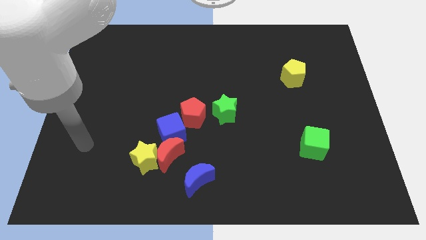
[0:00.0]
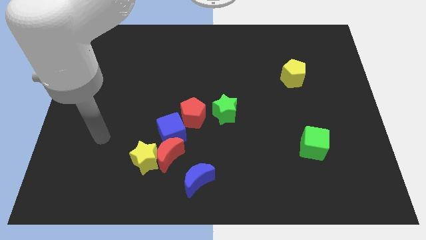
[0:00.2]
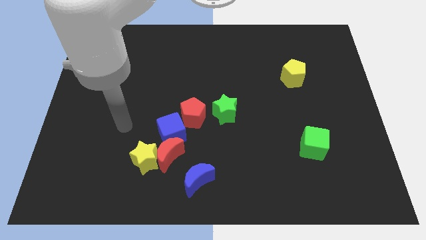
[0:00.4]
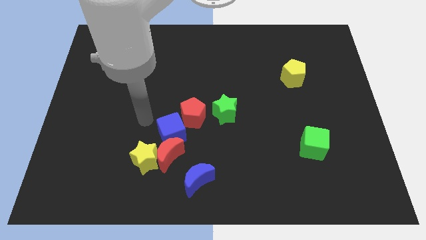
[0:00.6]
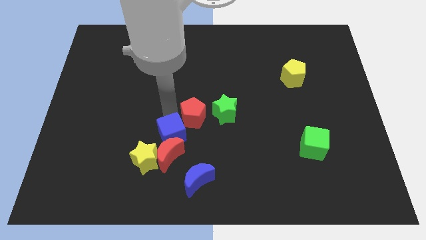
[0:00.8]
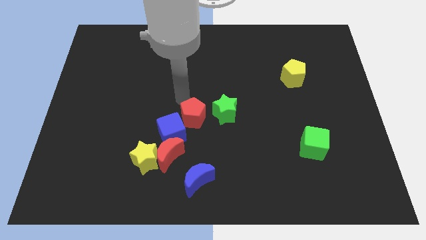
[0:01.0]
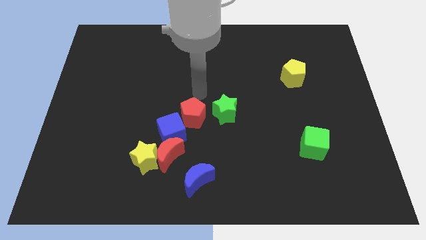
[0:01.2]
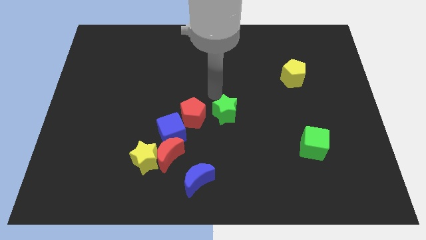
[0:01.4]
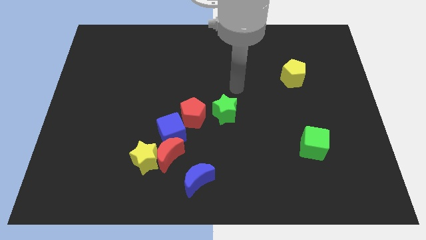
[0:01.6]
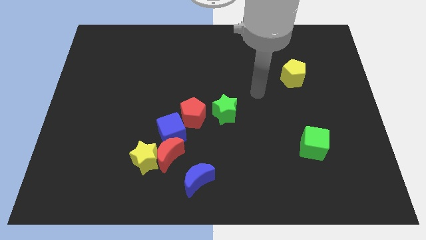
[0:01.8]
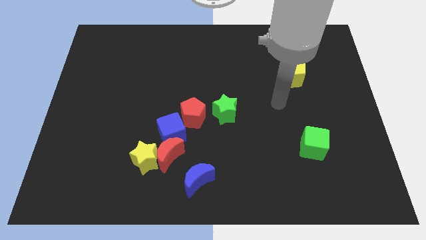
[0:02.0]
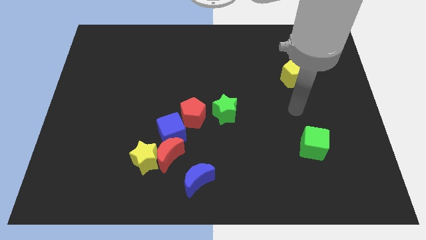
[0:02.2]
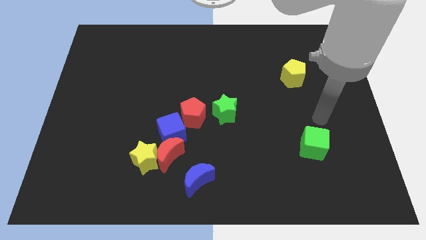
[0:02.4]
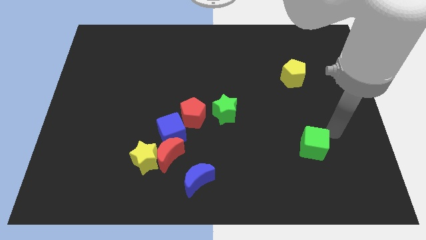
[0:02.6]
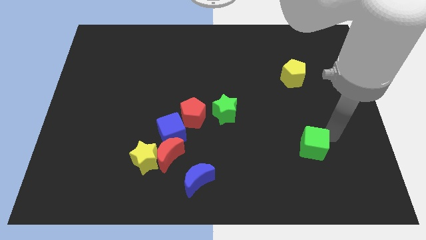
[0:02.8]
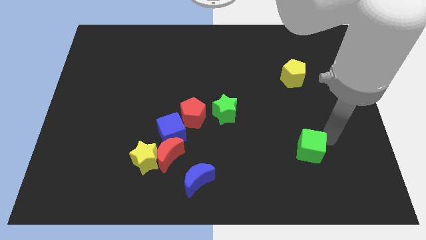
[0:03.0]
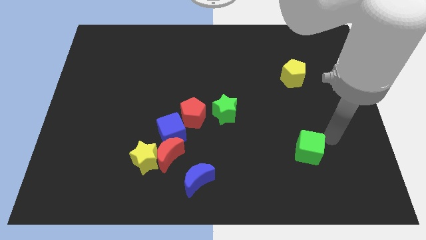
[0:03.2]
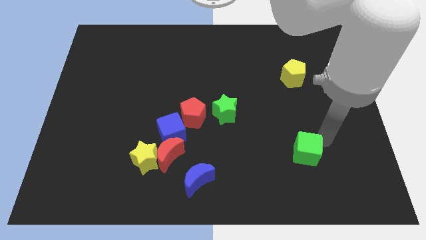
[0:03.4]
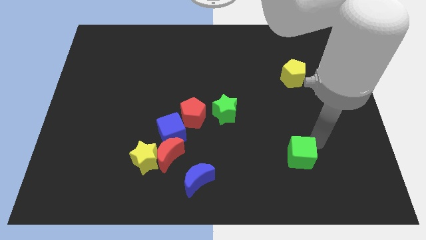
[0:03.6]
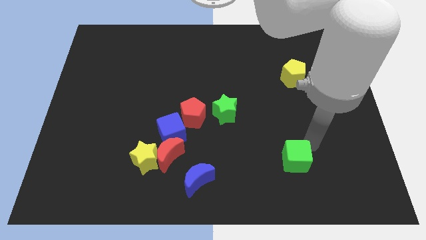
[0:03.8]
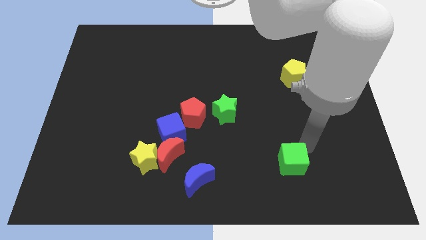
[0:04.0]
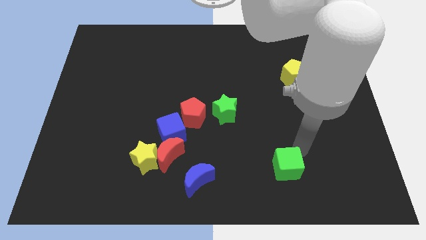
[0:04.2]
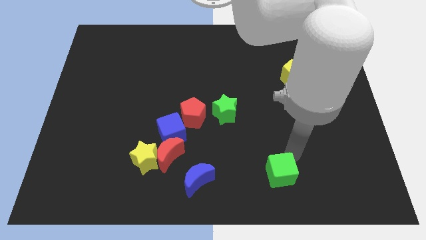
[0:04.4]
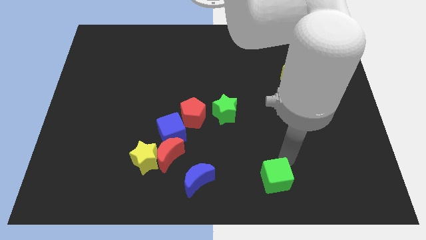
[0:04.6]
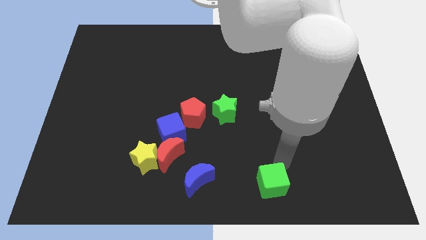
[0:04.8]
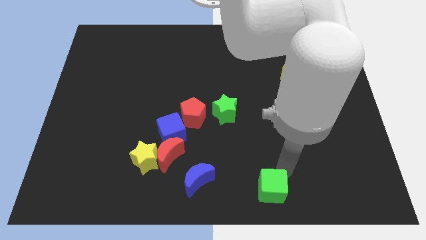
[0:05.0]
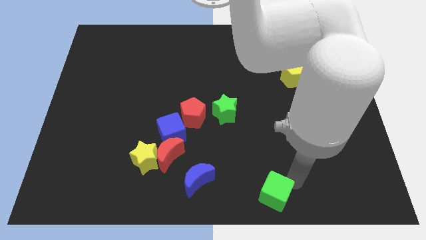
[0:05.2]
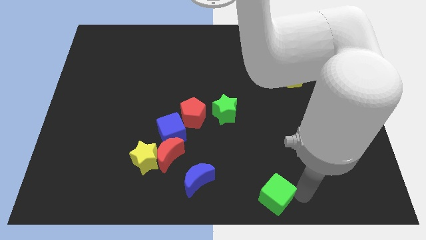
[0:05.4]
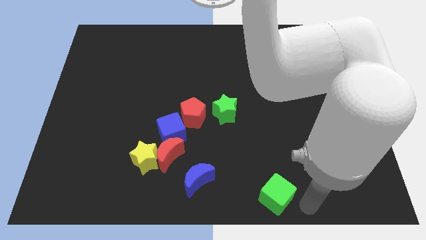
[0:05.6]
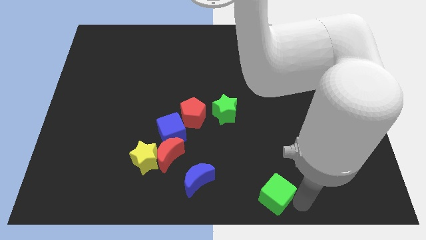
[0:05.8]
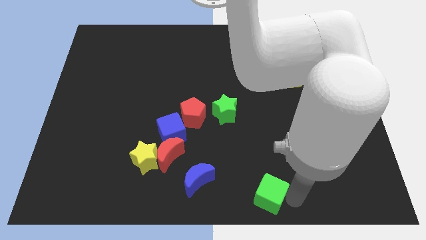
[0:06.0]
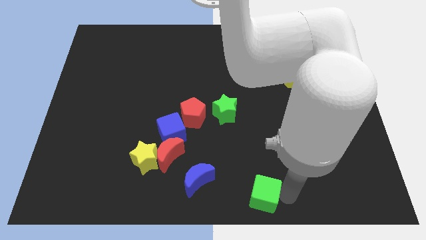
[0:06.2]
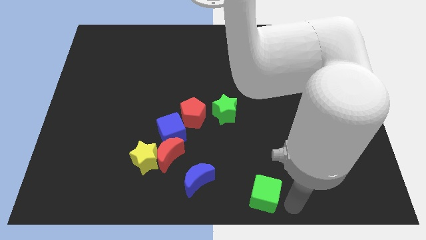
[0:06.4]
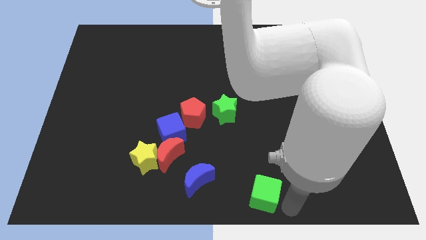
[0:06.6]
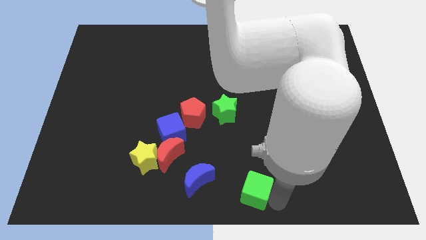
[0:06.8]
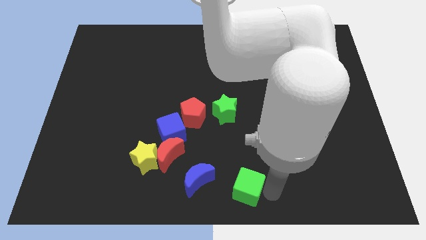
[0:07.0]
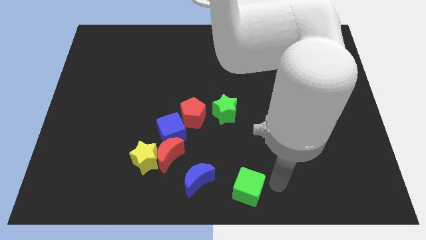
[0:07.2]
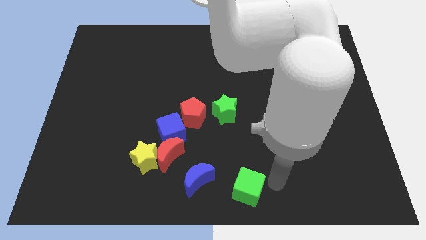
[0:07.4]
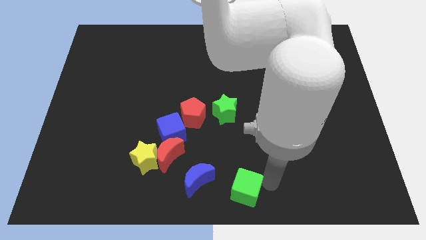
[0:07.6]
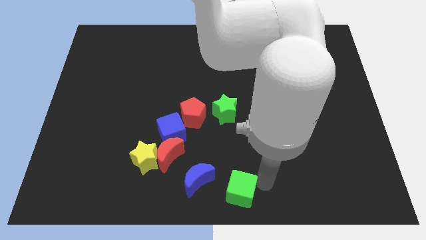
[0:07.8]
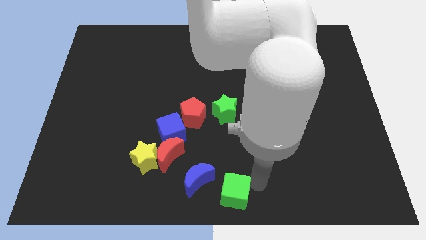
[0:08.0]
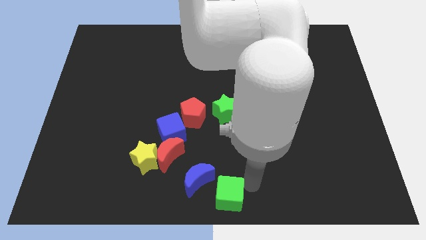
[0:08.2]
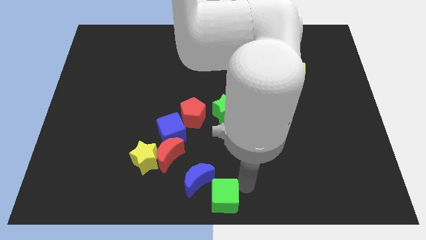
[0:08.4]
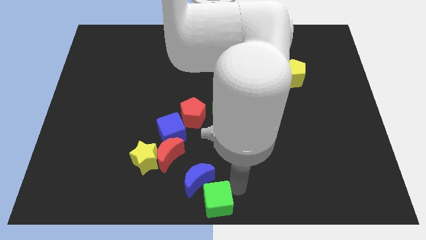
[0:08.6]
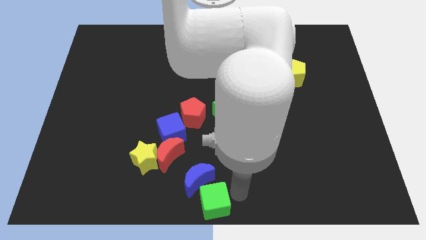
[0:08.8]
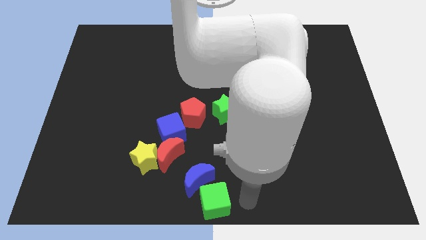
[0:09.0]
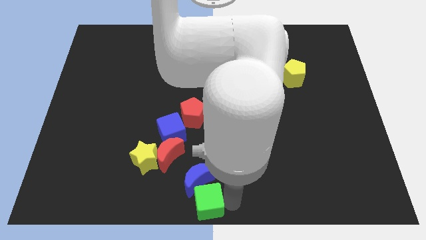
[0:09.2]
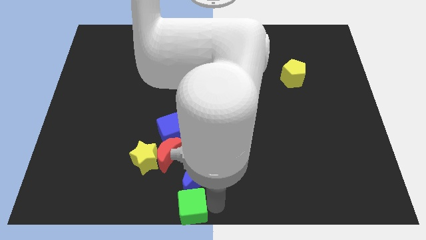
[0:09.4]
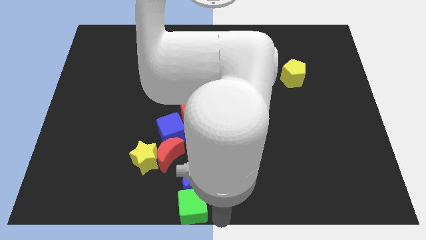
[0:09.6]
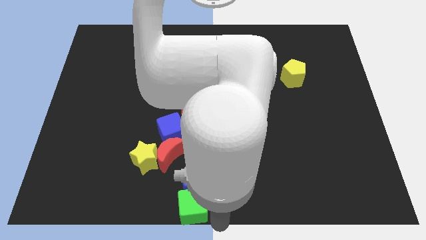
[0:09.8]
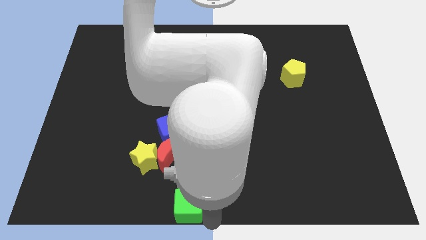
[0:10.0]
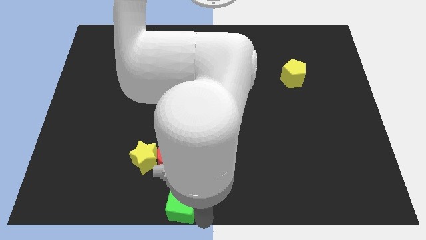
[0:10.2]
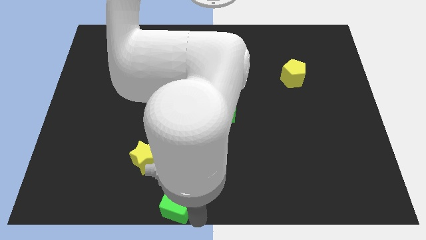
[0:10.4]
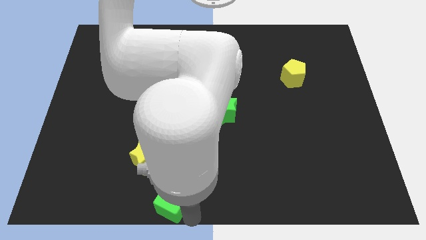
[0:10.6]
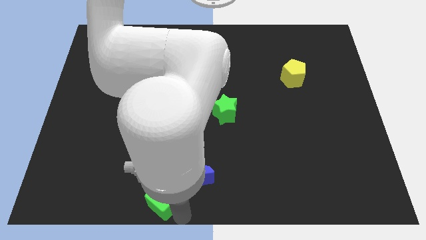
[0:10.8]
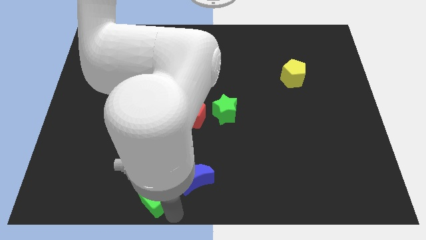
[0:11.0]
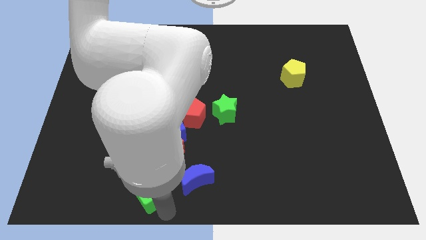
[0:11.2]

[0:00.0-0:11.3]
move the green cube to the bottom left side of the red moon

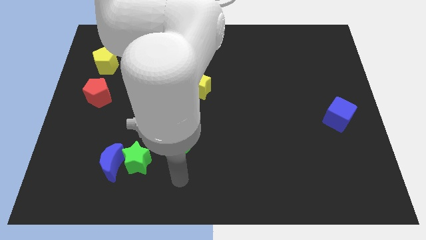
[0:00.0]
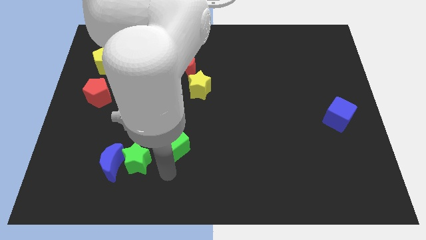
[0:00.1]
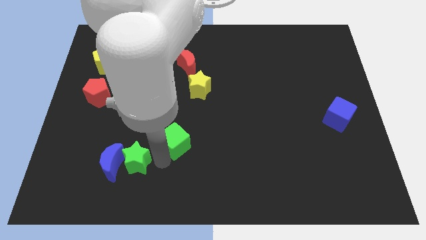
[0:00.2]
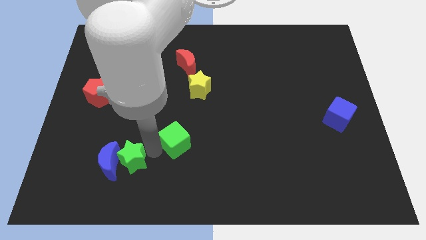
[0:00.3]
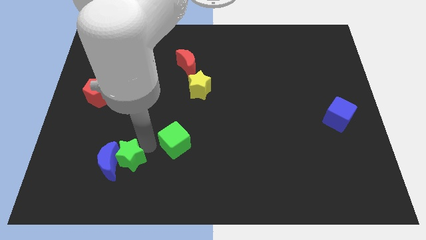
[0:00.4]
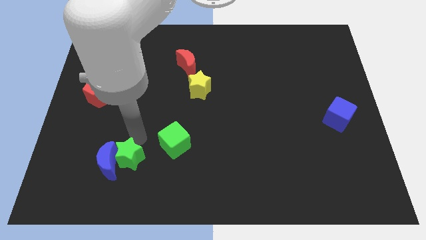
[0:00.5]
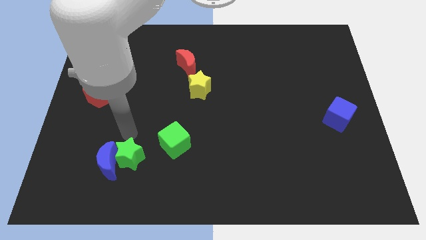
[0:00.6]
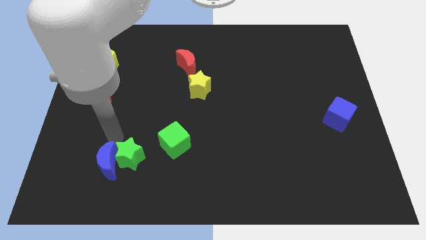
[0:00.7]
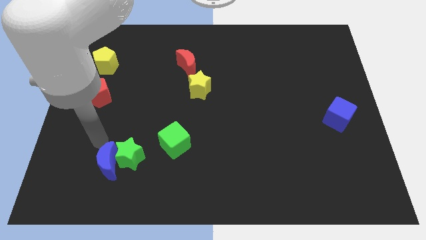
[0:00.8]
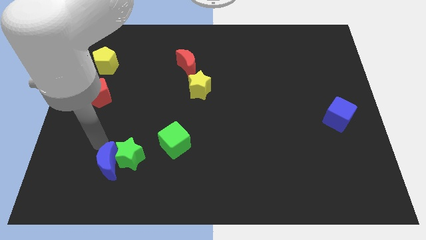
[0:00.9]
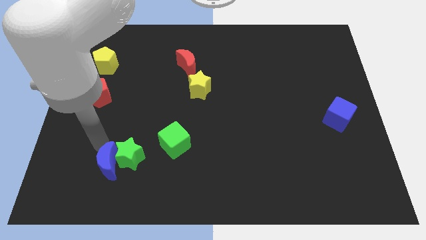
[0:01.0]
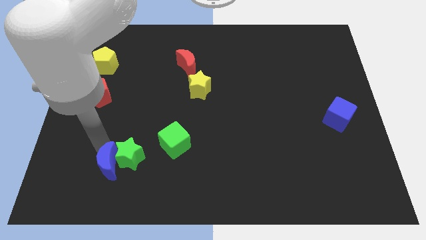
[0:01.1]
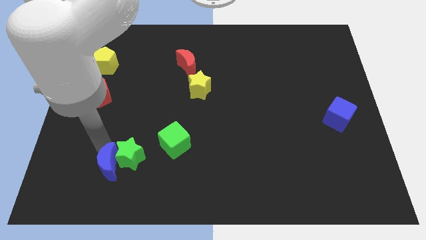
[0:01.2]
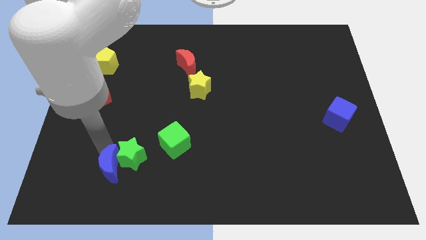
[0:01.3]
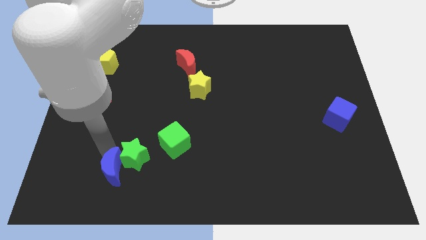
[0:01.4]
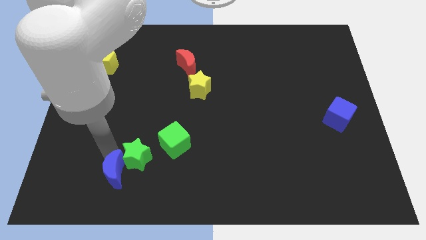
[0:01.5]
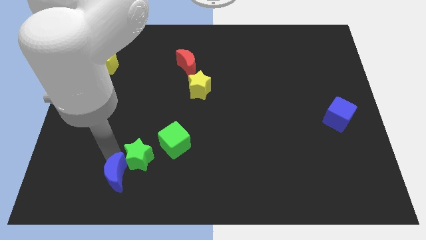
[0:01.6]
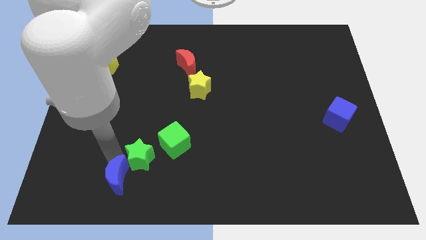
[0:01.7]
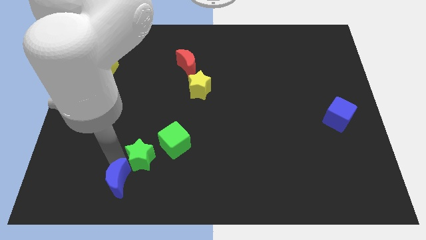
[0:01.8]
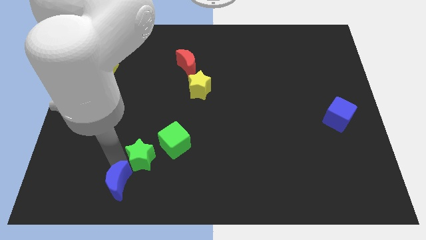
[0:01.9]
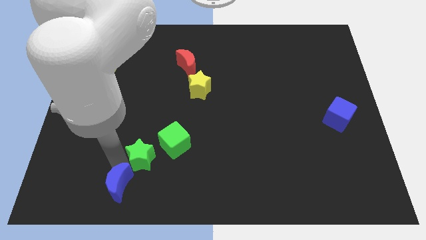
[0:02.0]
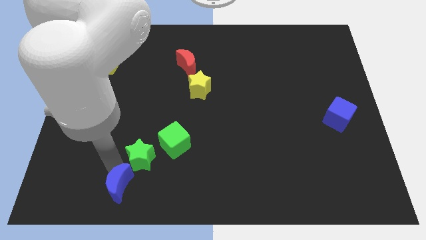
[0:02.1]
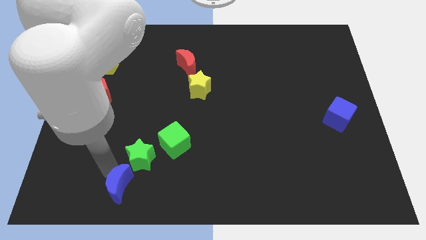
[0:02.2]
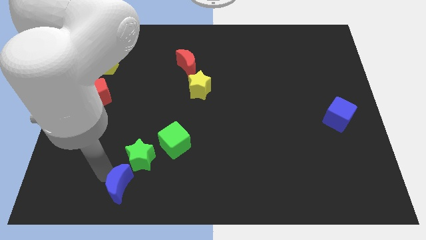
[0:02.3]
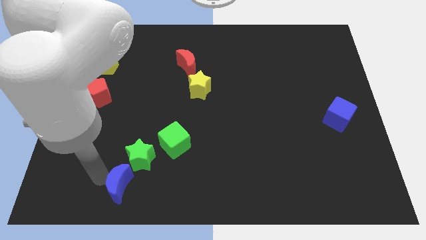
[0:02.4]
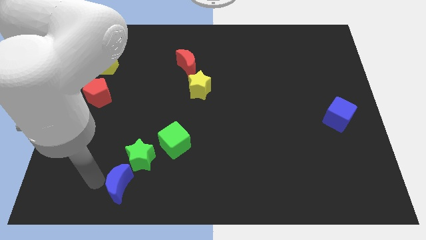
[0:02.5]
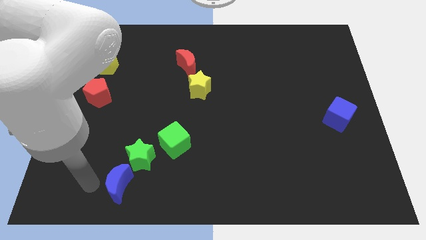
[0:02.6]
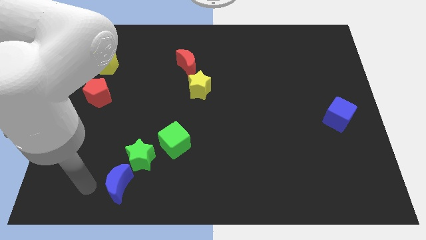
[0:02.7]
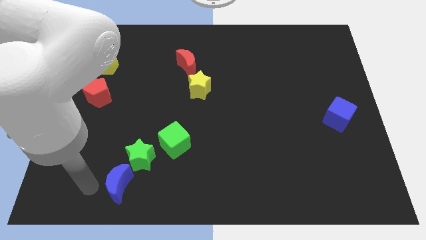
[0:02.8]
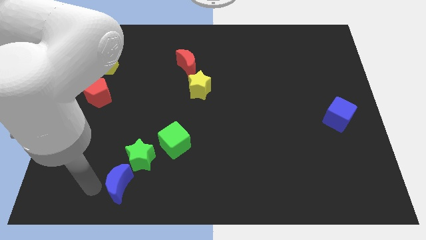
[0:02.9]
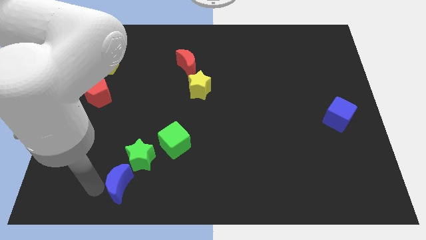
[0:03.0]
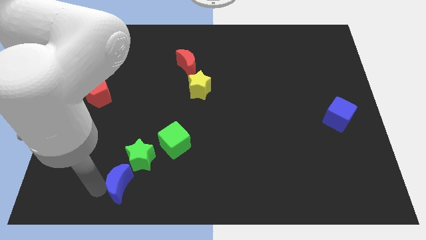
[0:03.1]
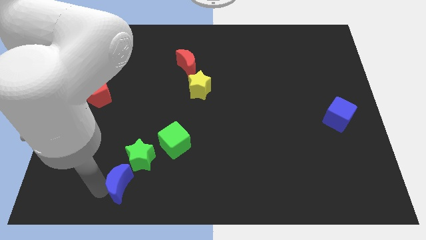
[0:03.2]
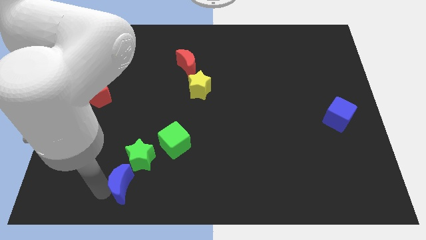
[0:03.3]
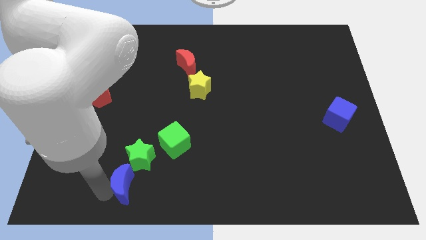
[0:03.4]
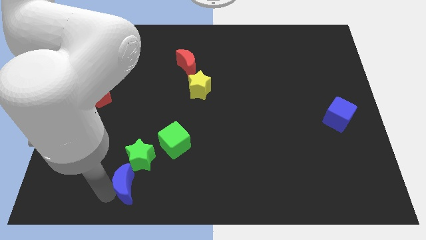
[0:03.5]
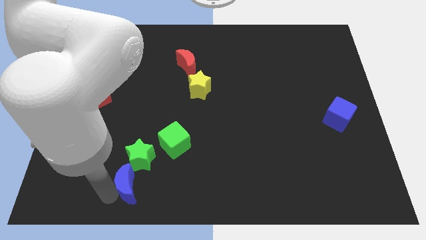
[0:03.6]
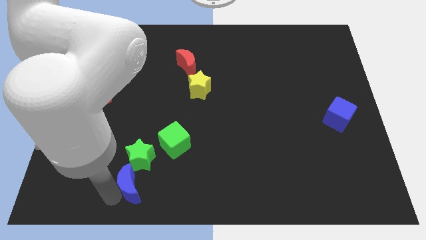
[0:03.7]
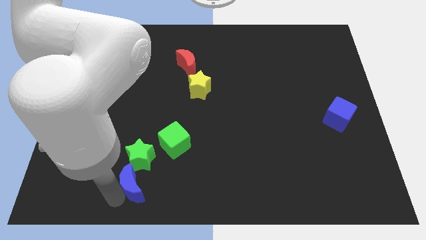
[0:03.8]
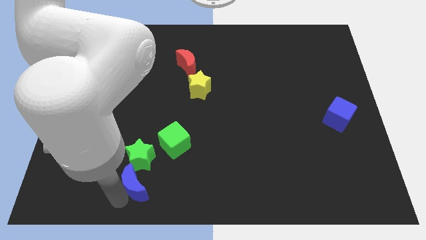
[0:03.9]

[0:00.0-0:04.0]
slide the blue moon diagonally down and to the left of the green cube
